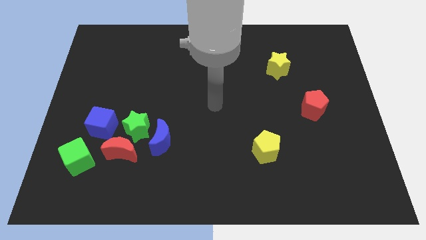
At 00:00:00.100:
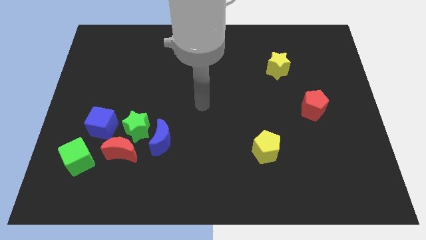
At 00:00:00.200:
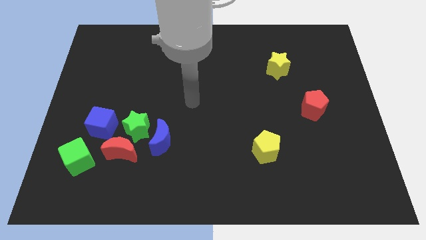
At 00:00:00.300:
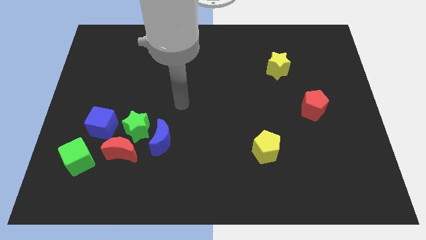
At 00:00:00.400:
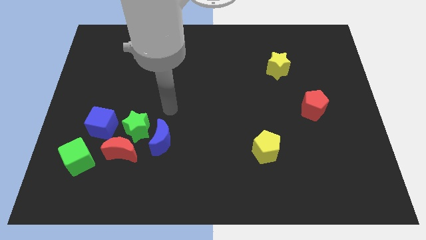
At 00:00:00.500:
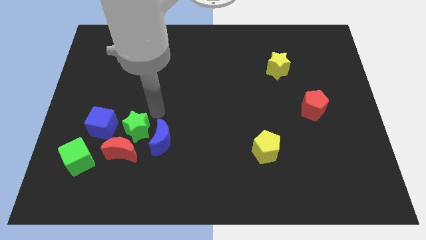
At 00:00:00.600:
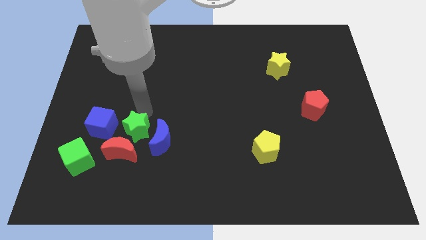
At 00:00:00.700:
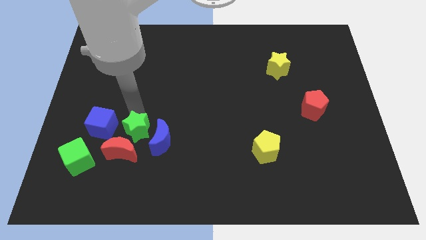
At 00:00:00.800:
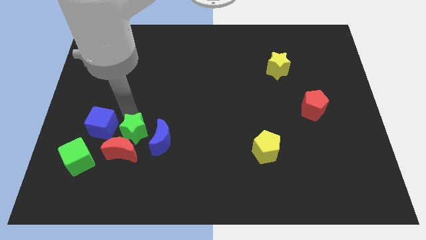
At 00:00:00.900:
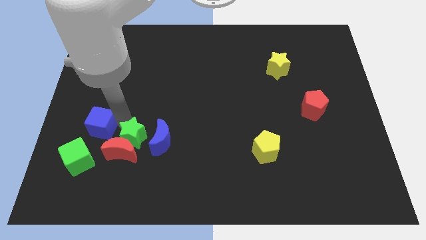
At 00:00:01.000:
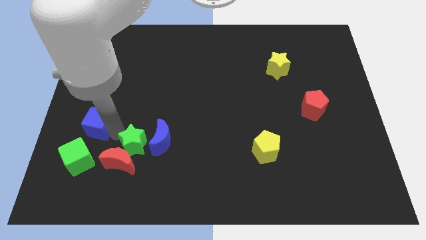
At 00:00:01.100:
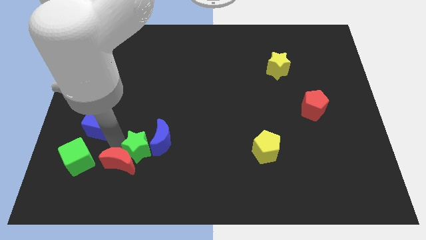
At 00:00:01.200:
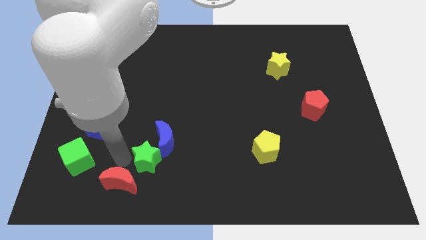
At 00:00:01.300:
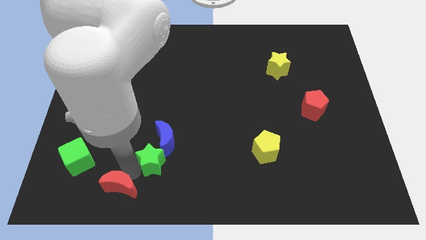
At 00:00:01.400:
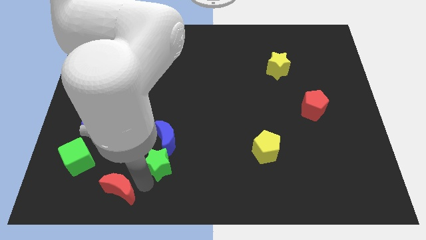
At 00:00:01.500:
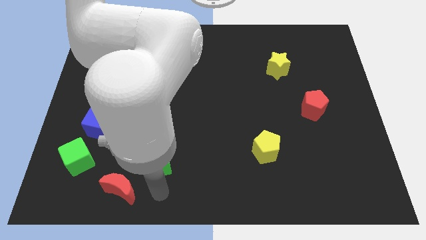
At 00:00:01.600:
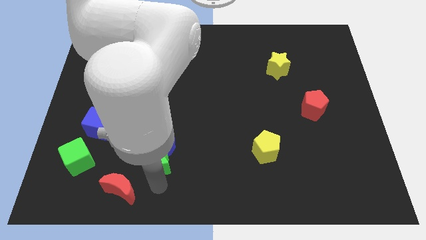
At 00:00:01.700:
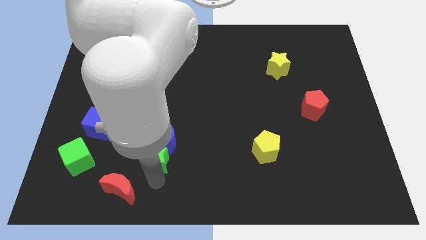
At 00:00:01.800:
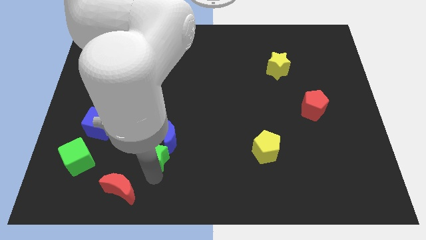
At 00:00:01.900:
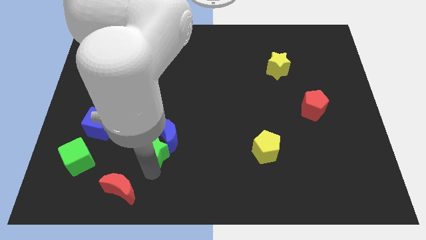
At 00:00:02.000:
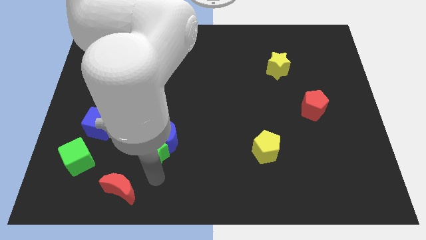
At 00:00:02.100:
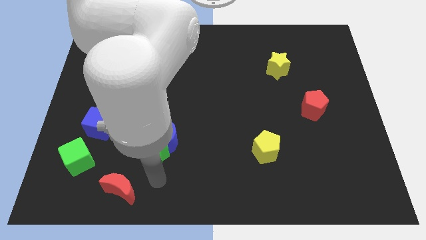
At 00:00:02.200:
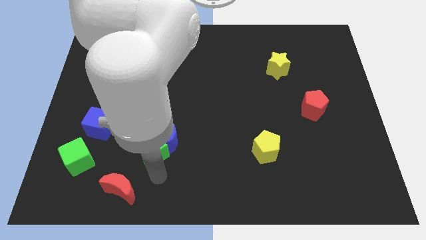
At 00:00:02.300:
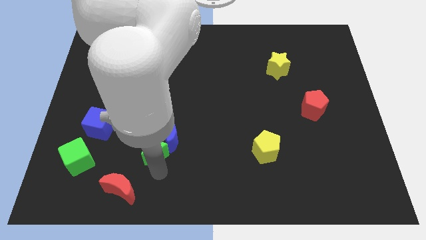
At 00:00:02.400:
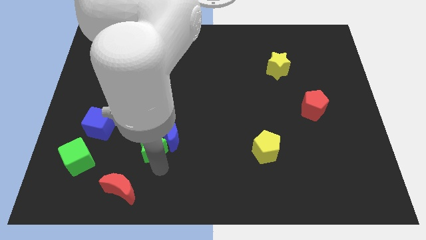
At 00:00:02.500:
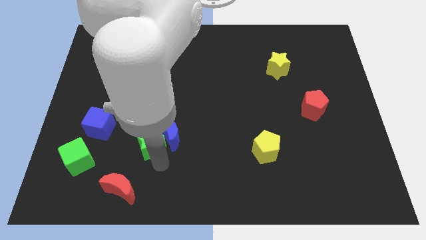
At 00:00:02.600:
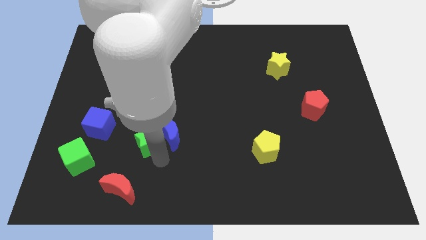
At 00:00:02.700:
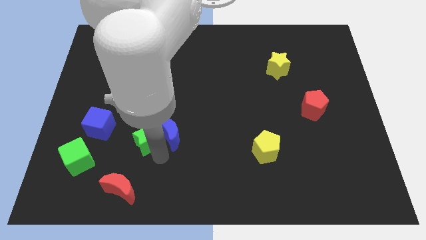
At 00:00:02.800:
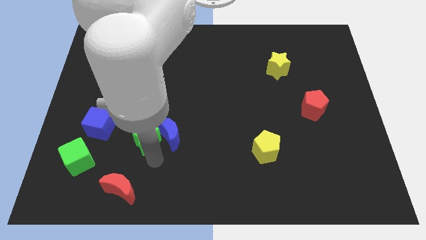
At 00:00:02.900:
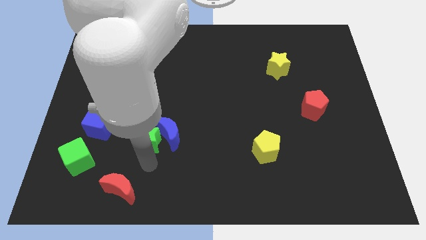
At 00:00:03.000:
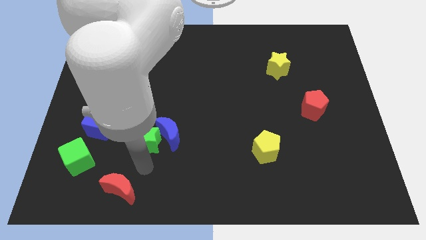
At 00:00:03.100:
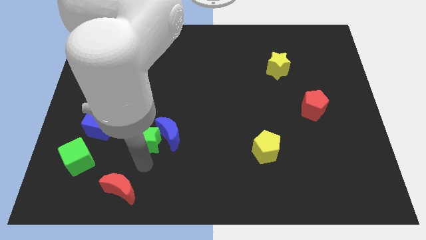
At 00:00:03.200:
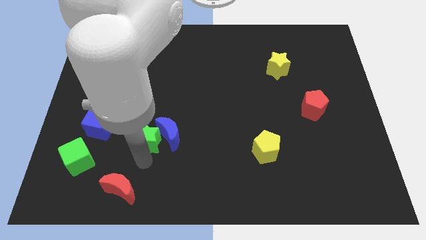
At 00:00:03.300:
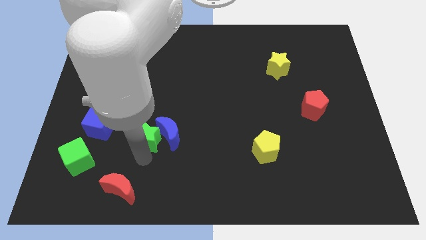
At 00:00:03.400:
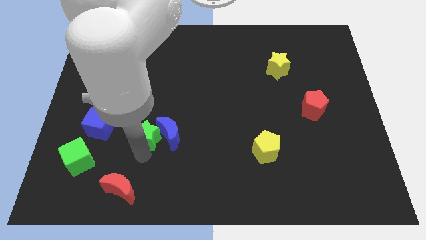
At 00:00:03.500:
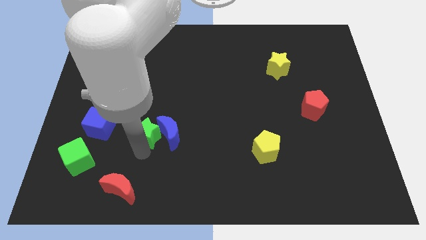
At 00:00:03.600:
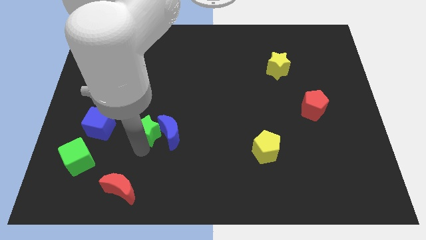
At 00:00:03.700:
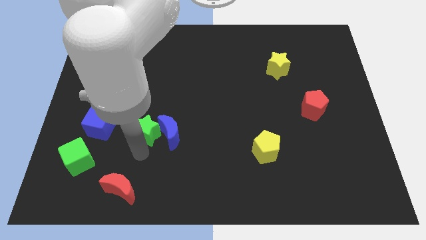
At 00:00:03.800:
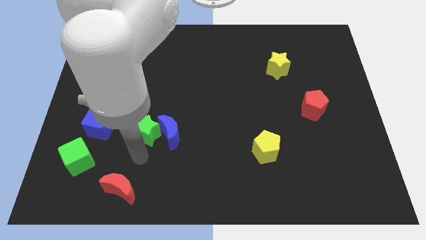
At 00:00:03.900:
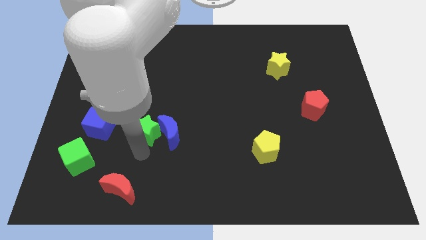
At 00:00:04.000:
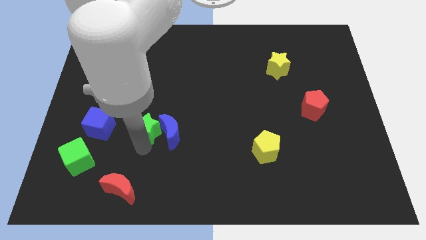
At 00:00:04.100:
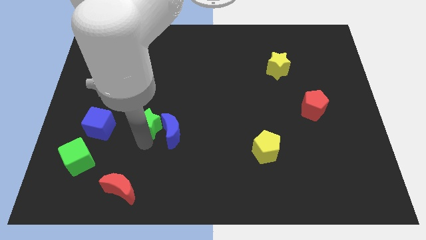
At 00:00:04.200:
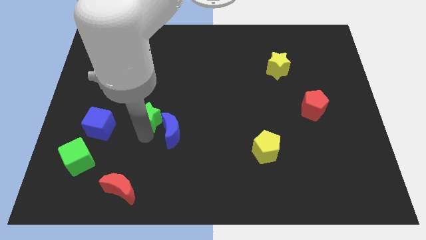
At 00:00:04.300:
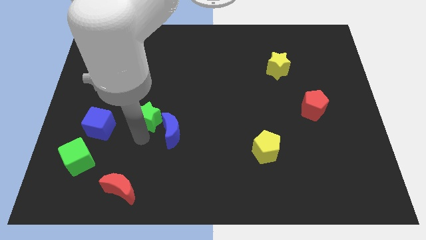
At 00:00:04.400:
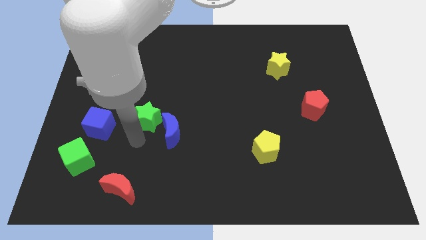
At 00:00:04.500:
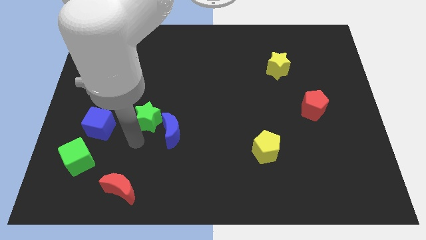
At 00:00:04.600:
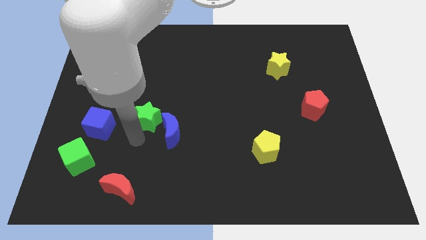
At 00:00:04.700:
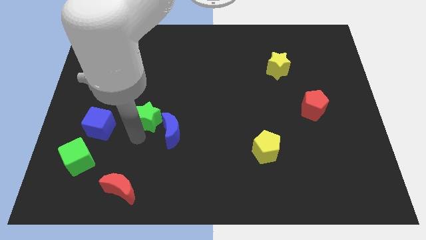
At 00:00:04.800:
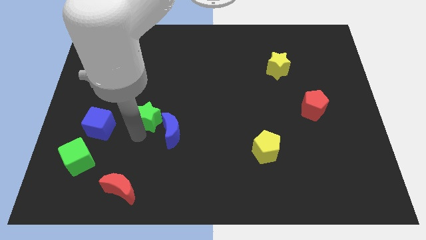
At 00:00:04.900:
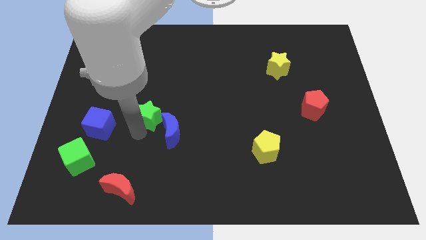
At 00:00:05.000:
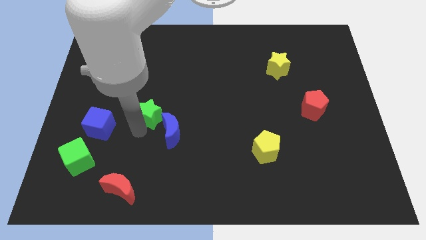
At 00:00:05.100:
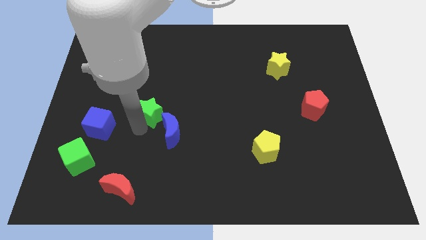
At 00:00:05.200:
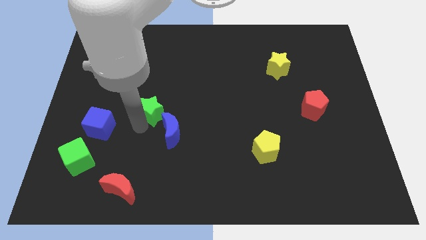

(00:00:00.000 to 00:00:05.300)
pull the green star apart from the blue moon, red moon, and blue cube

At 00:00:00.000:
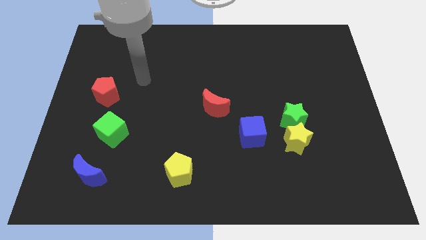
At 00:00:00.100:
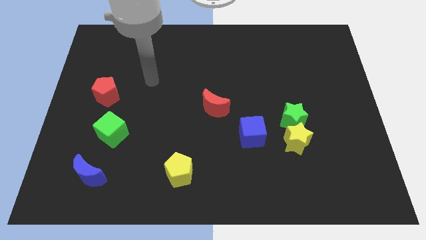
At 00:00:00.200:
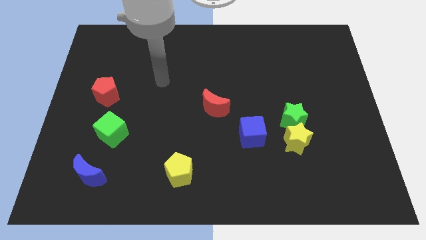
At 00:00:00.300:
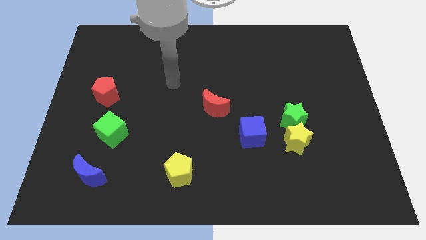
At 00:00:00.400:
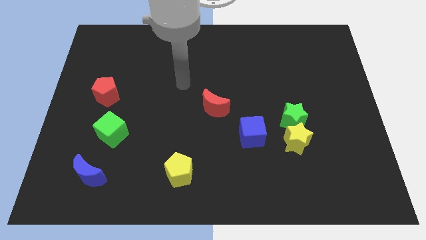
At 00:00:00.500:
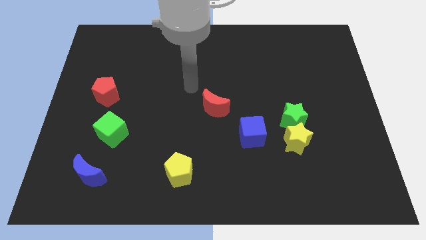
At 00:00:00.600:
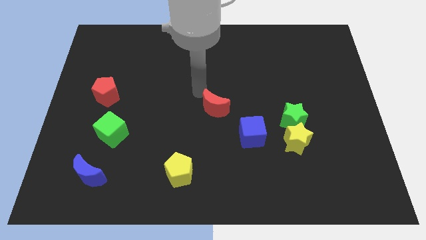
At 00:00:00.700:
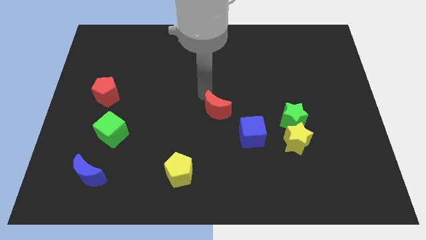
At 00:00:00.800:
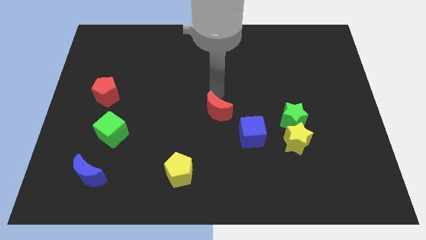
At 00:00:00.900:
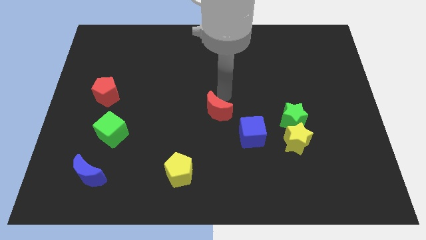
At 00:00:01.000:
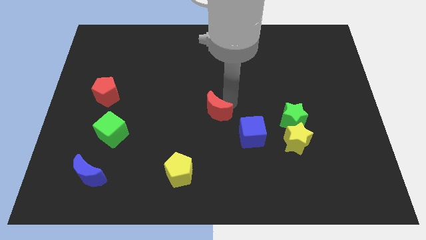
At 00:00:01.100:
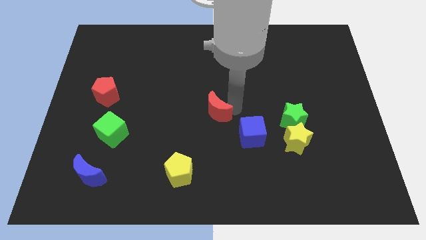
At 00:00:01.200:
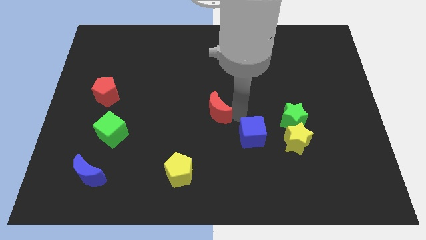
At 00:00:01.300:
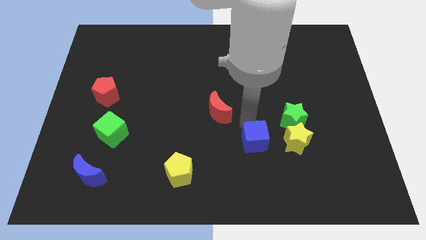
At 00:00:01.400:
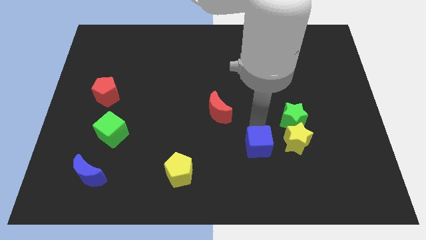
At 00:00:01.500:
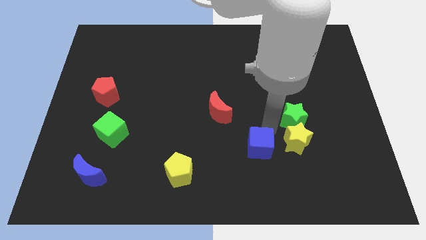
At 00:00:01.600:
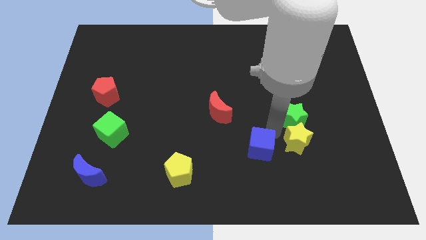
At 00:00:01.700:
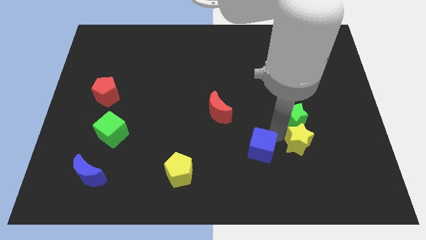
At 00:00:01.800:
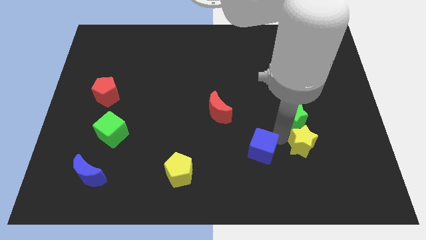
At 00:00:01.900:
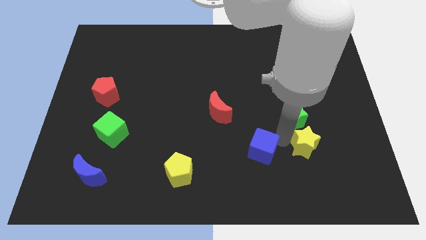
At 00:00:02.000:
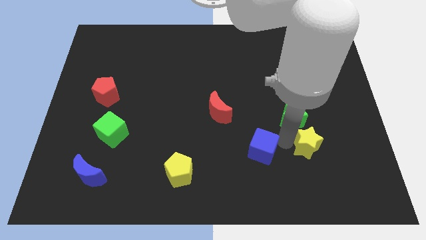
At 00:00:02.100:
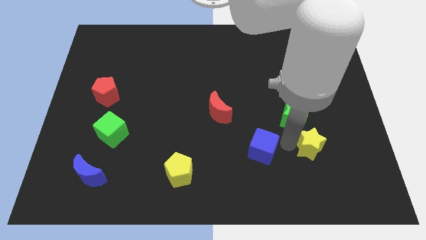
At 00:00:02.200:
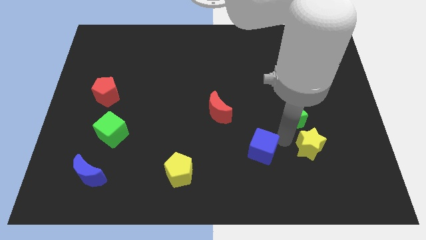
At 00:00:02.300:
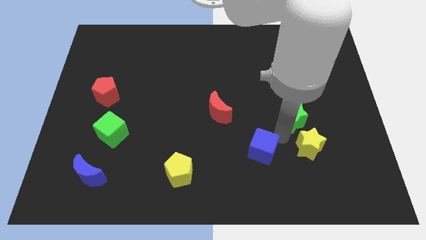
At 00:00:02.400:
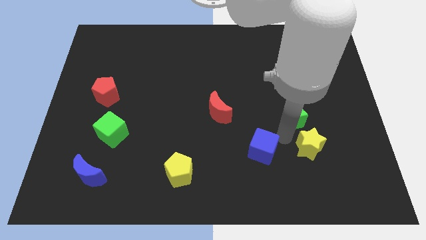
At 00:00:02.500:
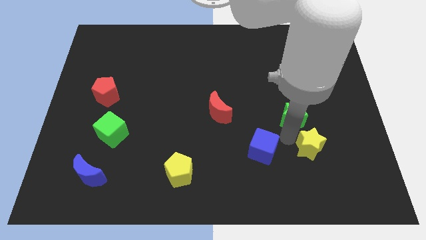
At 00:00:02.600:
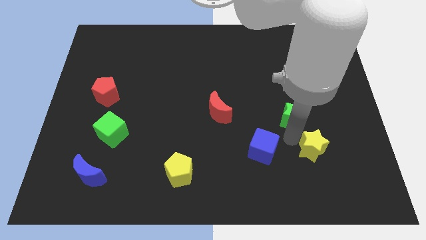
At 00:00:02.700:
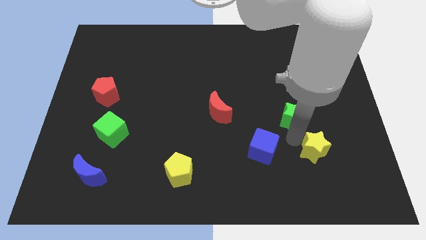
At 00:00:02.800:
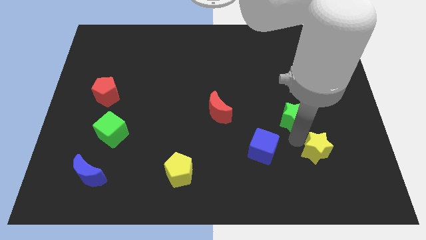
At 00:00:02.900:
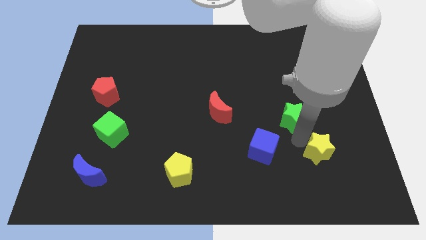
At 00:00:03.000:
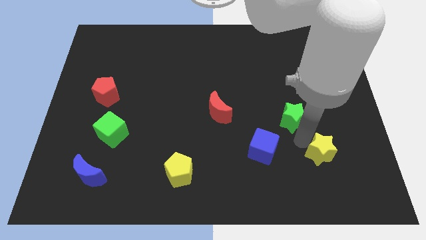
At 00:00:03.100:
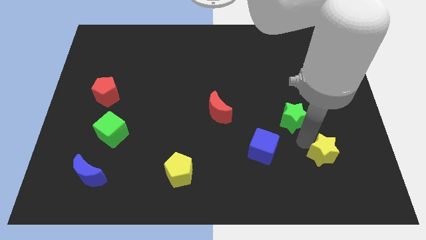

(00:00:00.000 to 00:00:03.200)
move the yellow star away from the green star and blue cube

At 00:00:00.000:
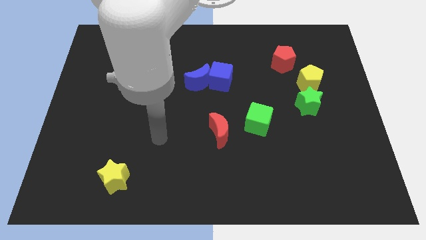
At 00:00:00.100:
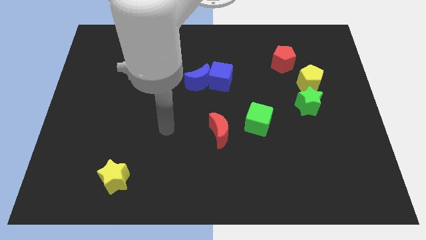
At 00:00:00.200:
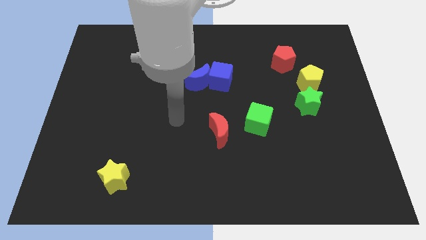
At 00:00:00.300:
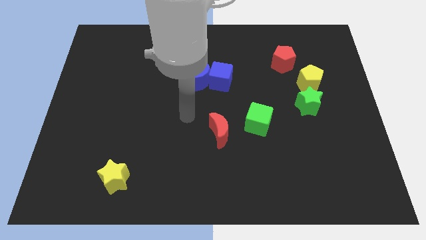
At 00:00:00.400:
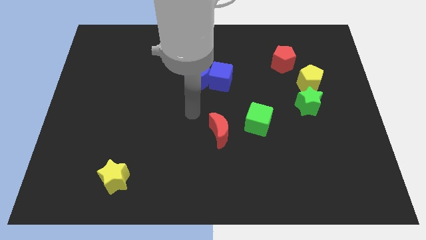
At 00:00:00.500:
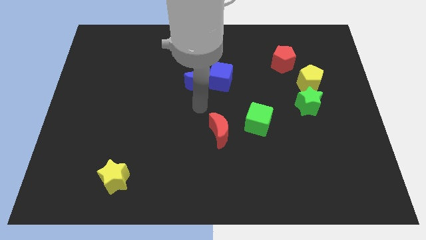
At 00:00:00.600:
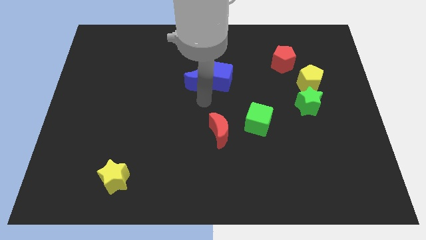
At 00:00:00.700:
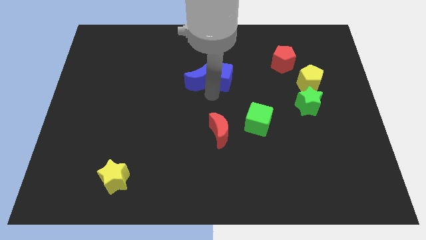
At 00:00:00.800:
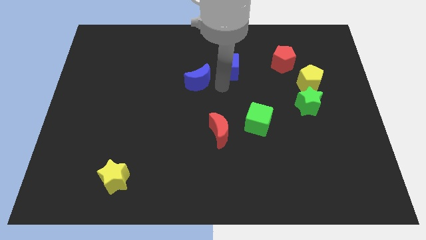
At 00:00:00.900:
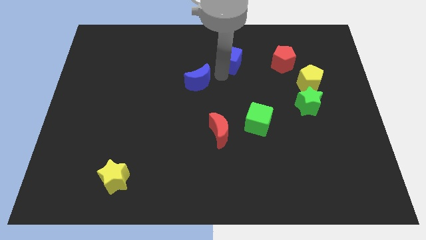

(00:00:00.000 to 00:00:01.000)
separate the blue moon from the blue cube
